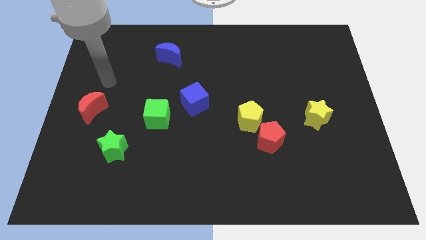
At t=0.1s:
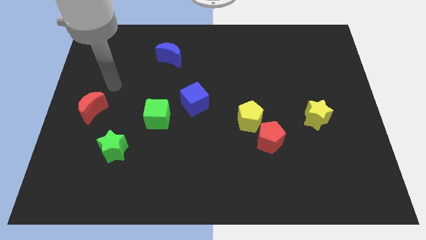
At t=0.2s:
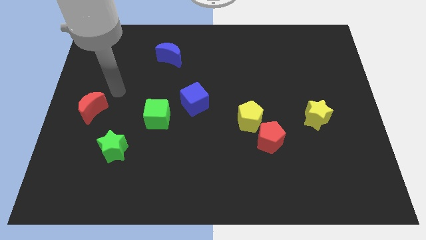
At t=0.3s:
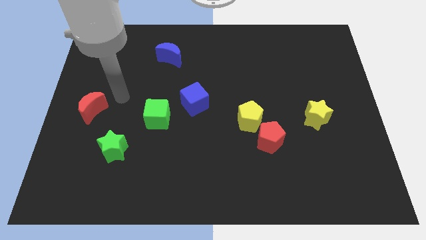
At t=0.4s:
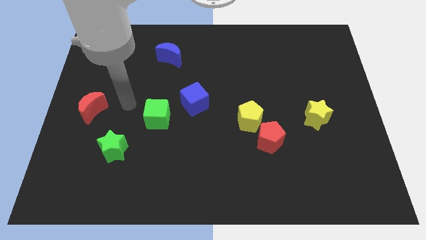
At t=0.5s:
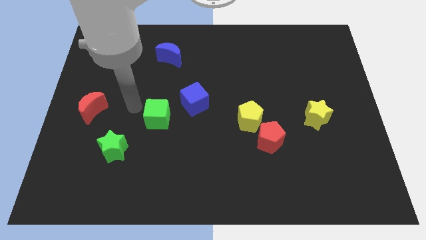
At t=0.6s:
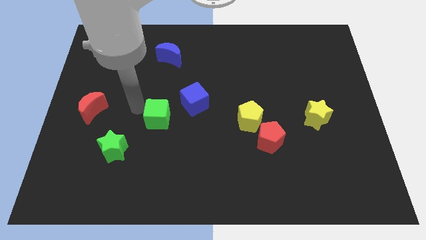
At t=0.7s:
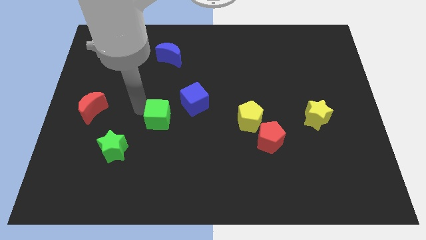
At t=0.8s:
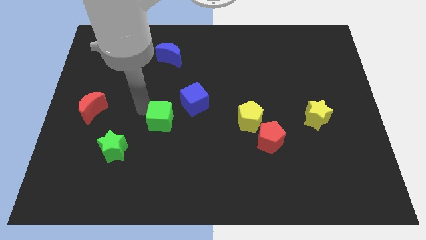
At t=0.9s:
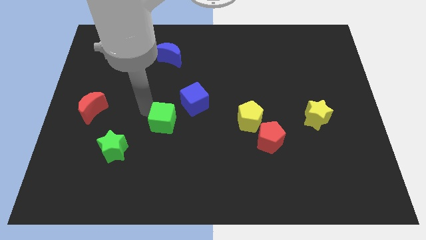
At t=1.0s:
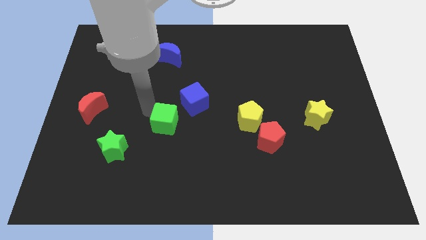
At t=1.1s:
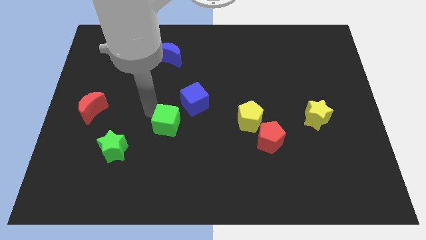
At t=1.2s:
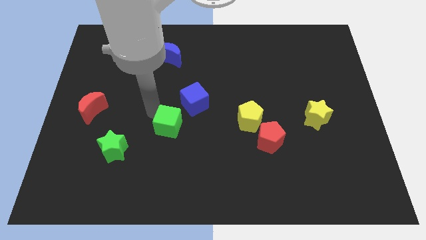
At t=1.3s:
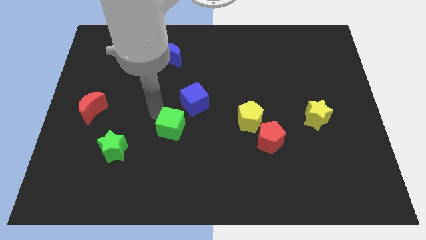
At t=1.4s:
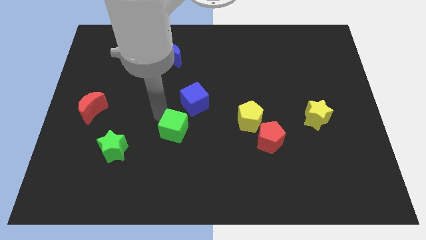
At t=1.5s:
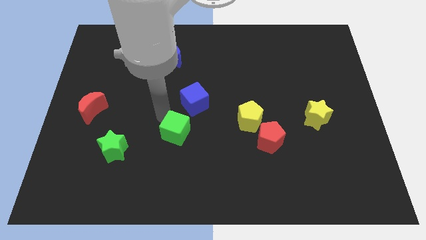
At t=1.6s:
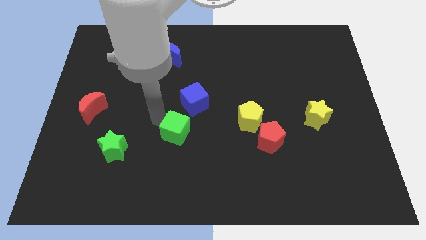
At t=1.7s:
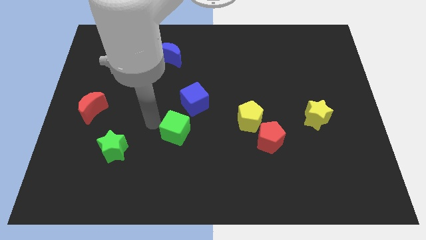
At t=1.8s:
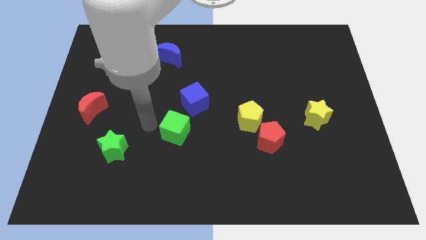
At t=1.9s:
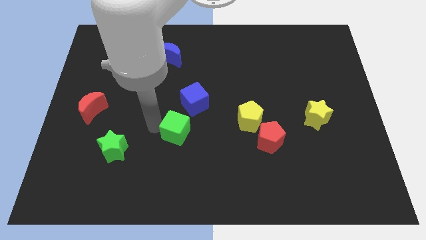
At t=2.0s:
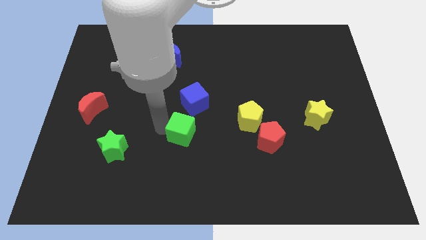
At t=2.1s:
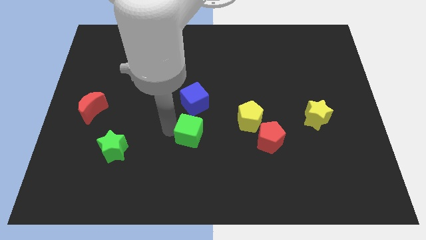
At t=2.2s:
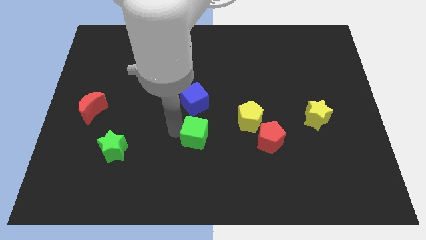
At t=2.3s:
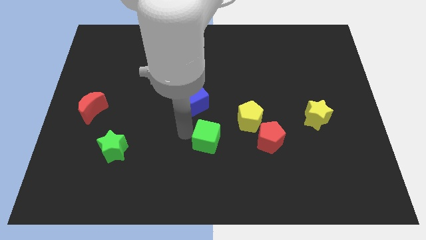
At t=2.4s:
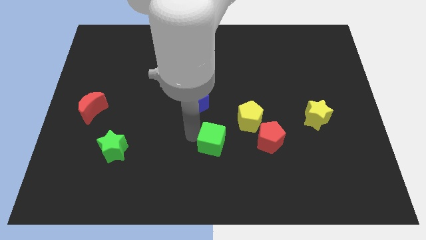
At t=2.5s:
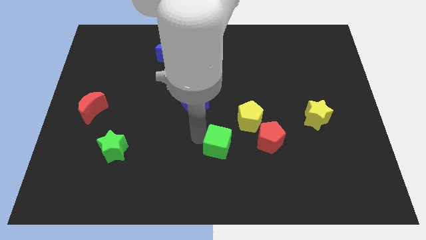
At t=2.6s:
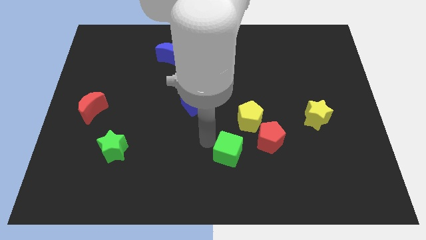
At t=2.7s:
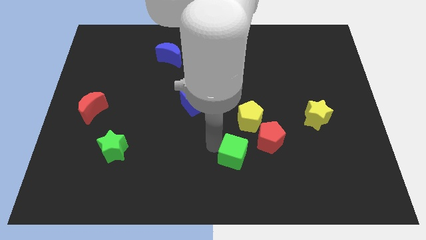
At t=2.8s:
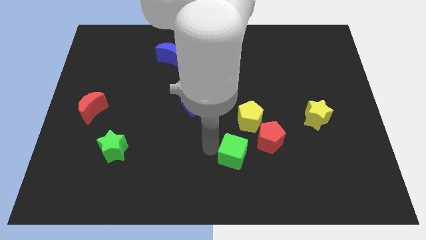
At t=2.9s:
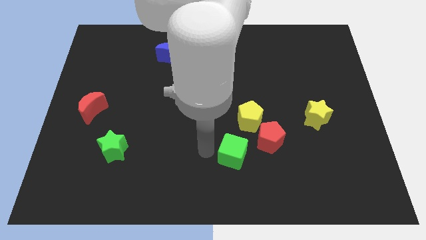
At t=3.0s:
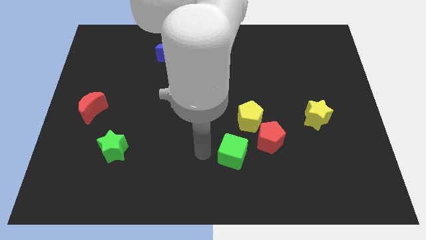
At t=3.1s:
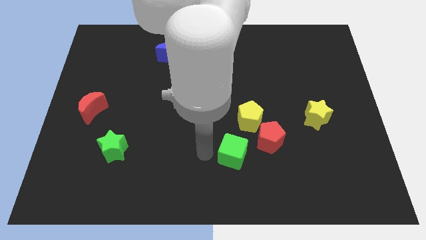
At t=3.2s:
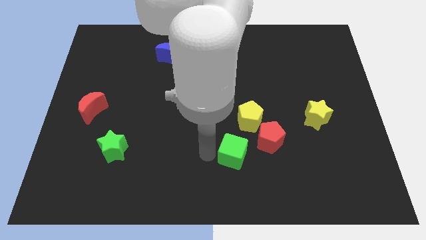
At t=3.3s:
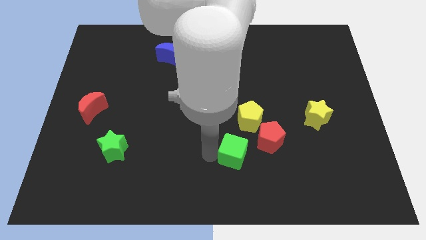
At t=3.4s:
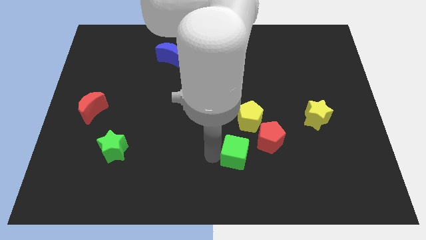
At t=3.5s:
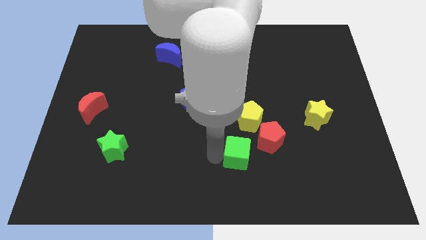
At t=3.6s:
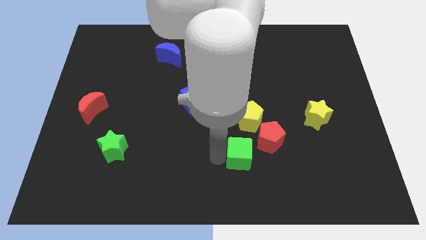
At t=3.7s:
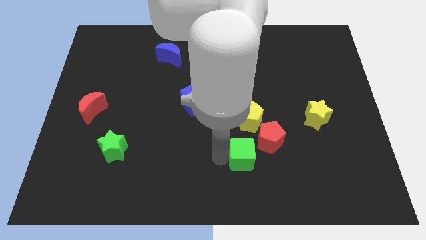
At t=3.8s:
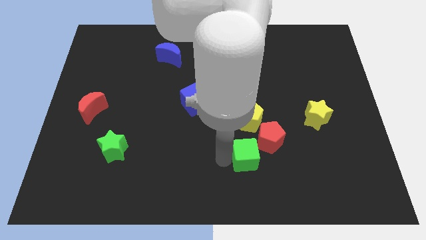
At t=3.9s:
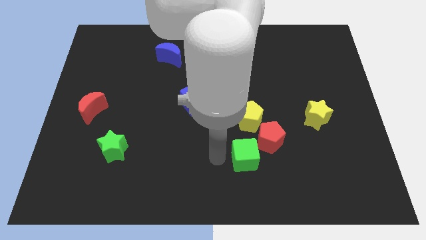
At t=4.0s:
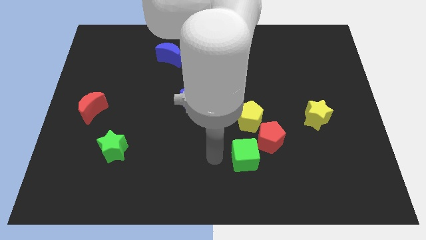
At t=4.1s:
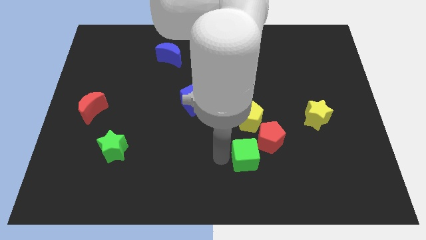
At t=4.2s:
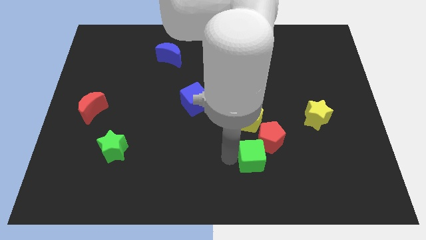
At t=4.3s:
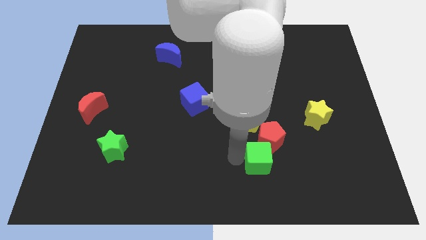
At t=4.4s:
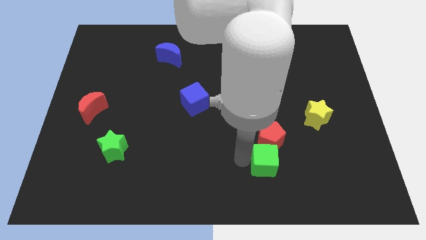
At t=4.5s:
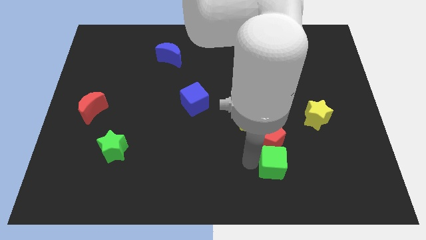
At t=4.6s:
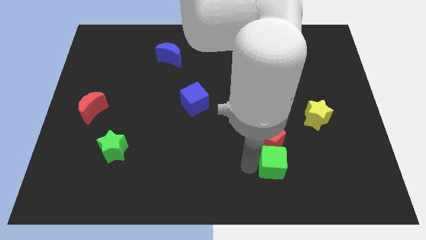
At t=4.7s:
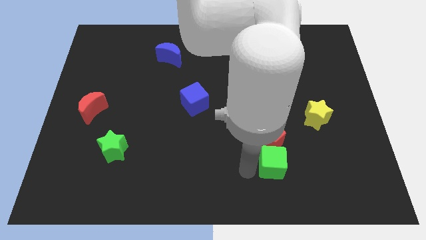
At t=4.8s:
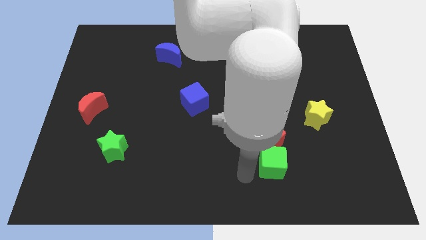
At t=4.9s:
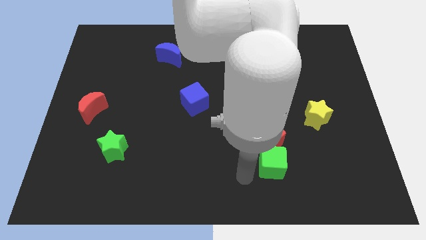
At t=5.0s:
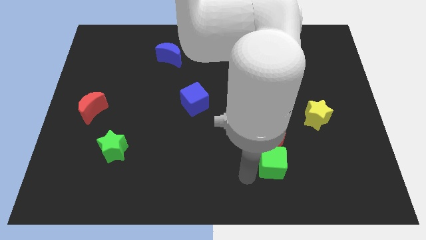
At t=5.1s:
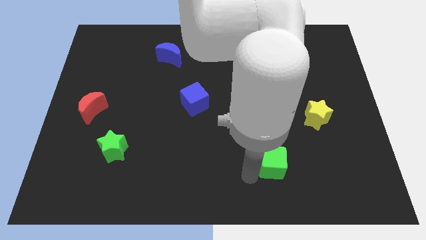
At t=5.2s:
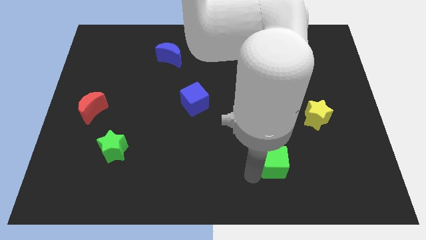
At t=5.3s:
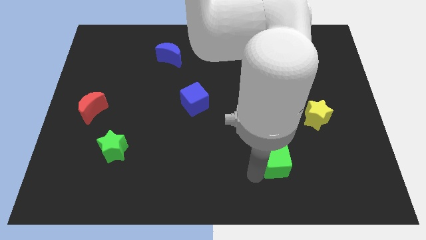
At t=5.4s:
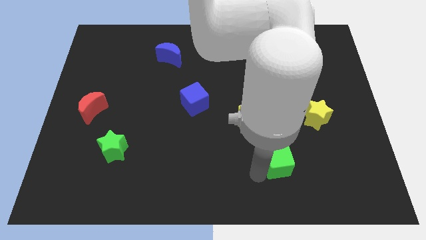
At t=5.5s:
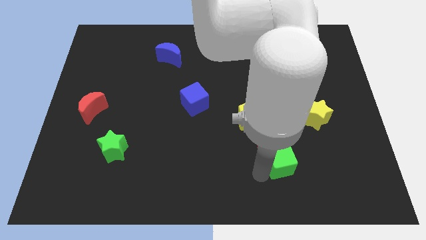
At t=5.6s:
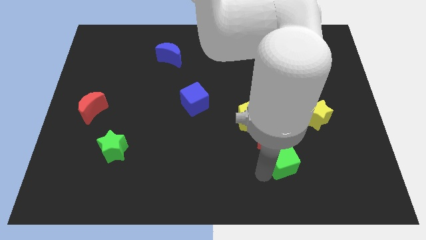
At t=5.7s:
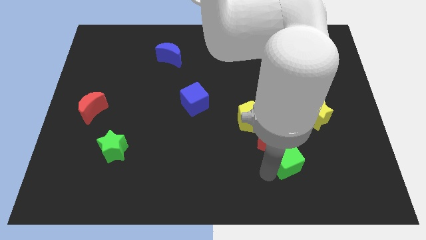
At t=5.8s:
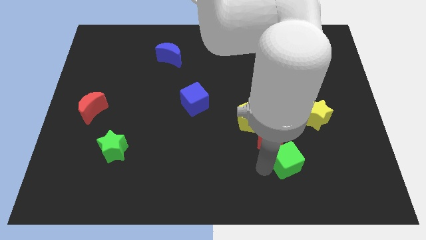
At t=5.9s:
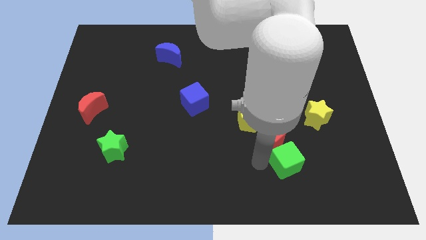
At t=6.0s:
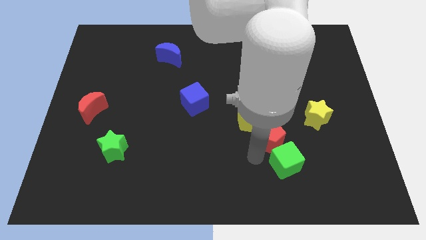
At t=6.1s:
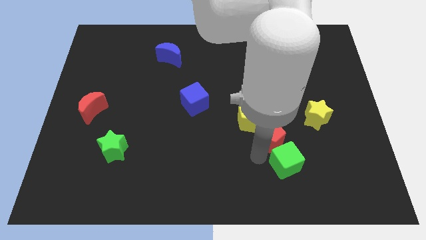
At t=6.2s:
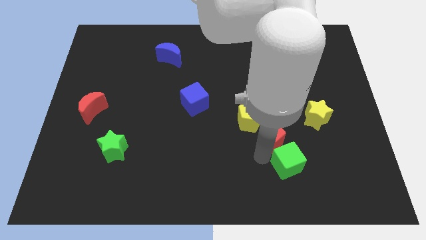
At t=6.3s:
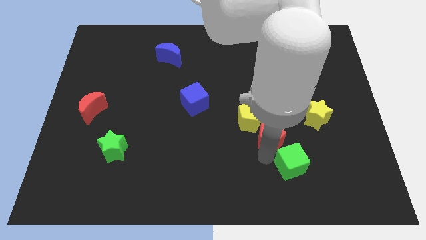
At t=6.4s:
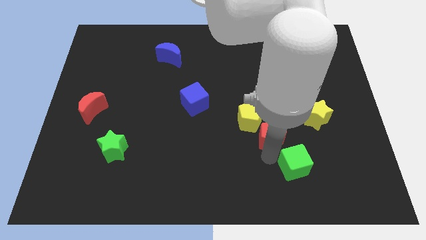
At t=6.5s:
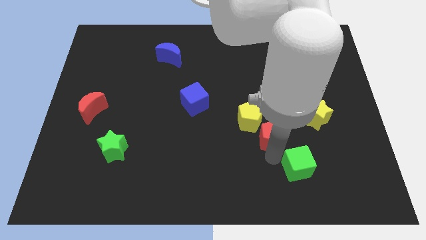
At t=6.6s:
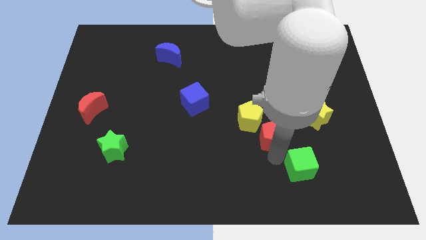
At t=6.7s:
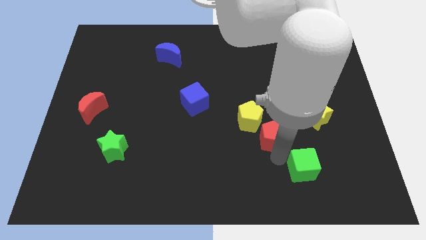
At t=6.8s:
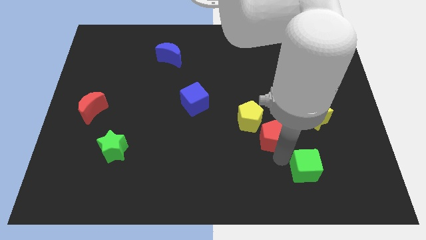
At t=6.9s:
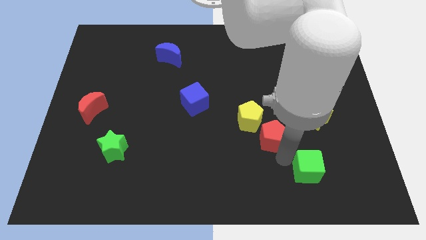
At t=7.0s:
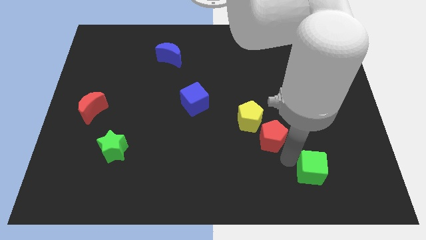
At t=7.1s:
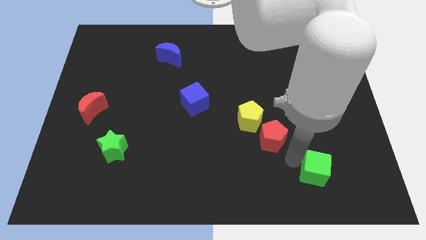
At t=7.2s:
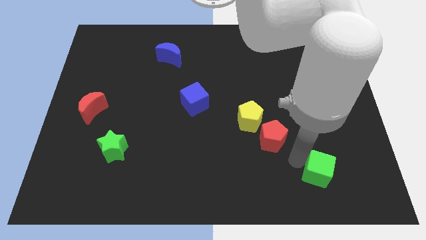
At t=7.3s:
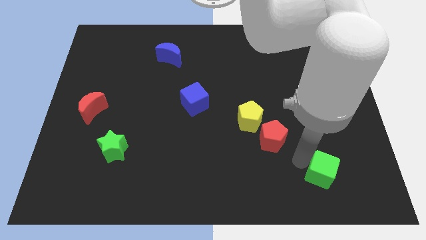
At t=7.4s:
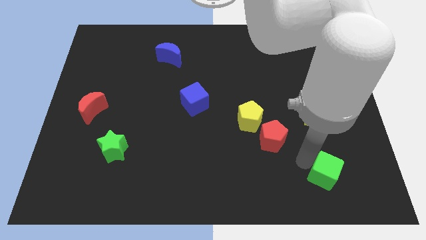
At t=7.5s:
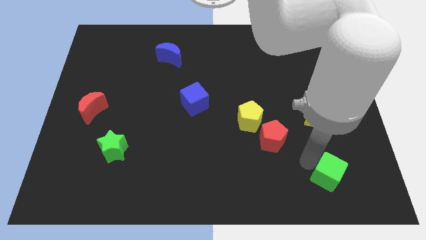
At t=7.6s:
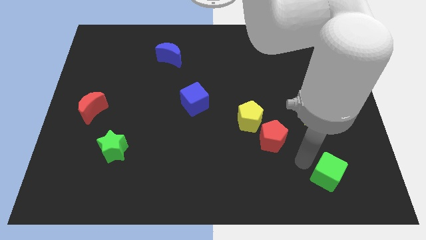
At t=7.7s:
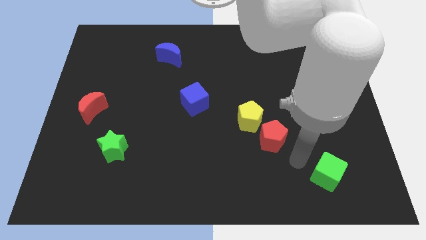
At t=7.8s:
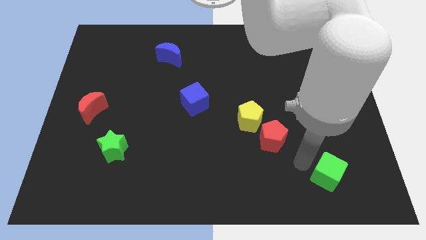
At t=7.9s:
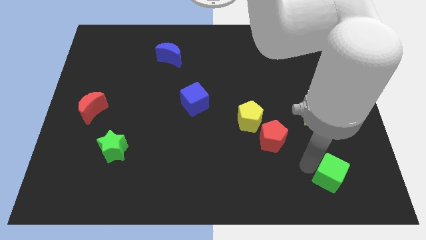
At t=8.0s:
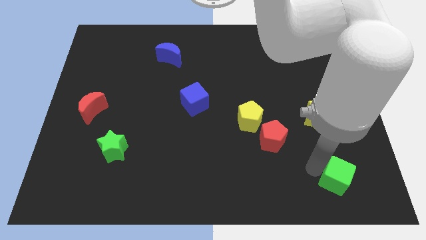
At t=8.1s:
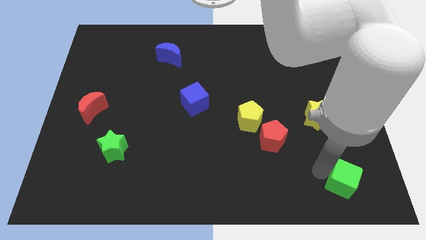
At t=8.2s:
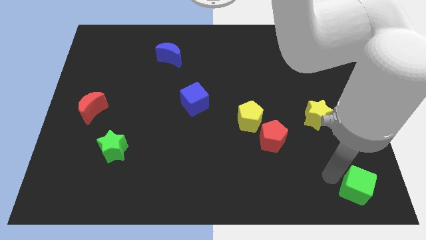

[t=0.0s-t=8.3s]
push the green cube to the bottom right
